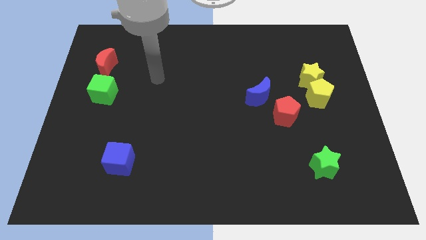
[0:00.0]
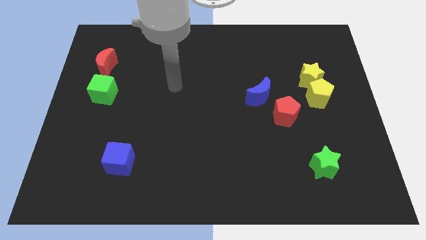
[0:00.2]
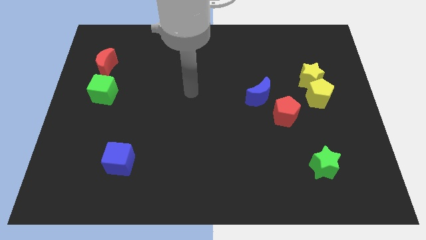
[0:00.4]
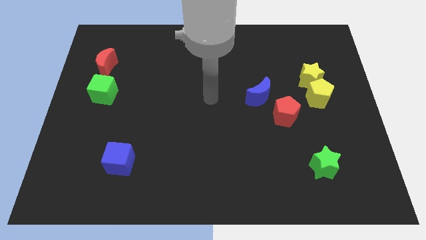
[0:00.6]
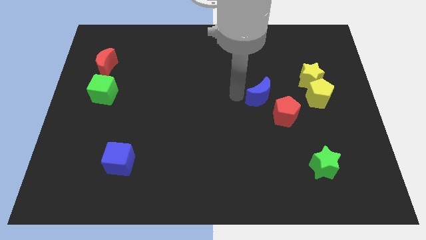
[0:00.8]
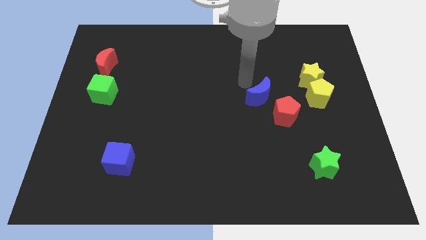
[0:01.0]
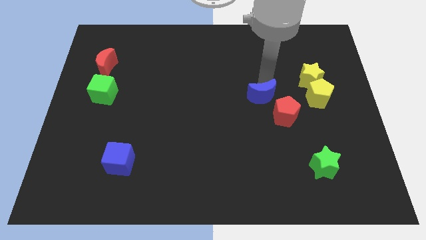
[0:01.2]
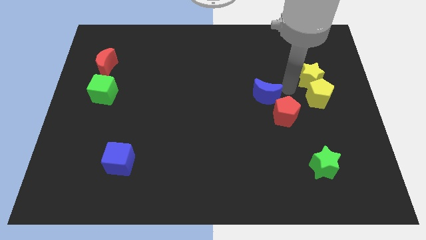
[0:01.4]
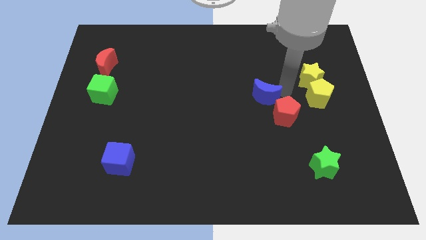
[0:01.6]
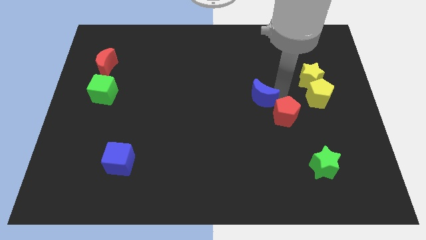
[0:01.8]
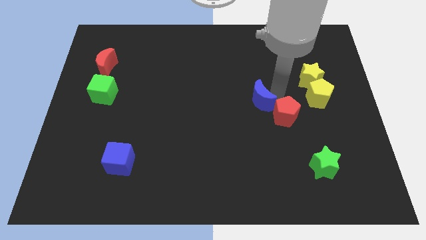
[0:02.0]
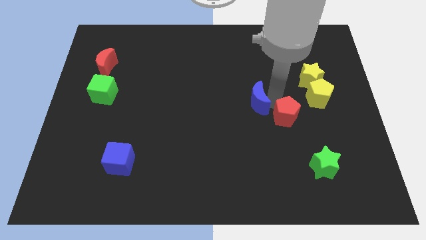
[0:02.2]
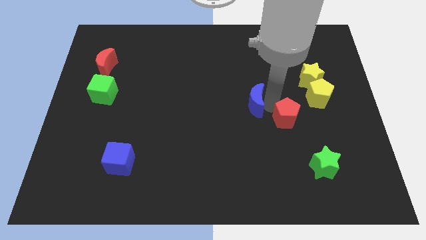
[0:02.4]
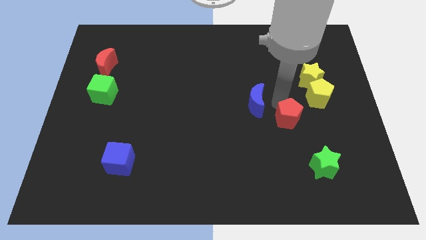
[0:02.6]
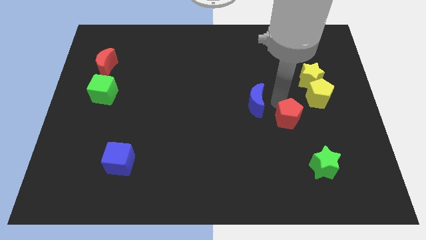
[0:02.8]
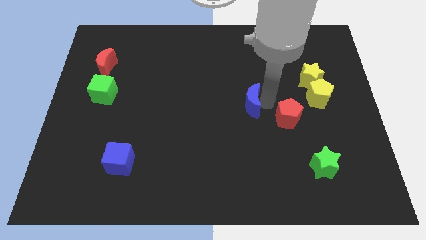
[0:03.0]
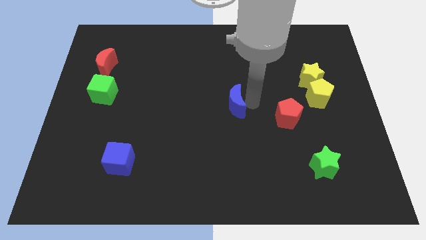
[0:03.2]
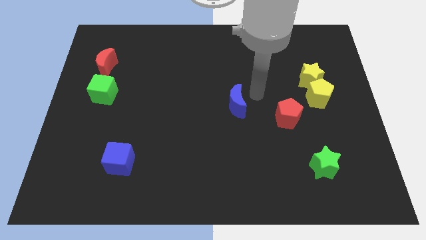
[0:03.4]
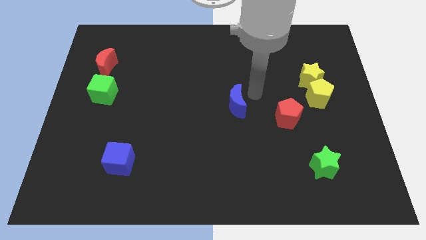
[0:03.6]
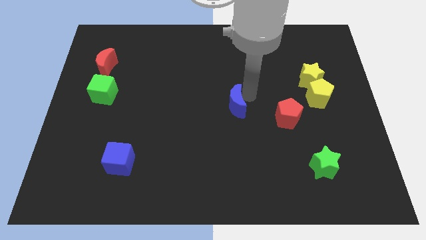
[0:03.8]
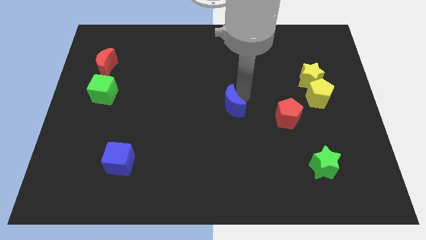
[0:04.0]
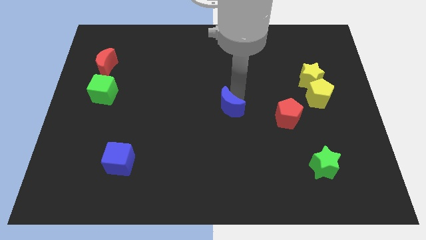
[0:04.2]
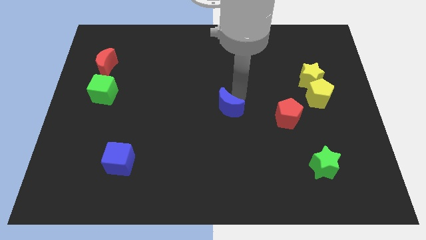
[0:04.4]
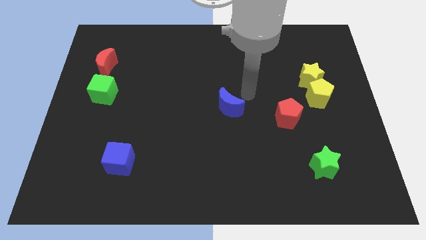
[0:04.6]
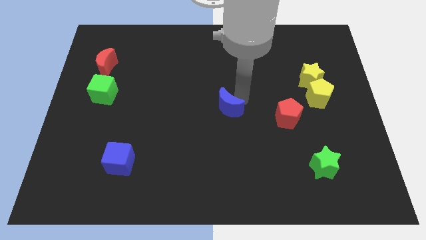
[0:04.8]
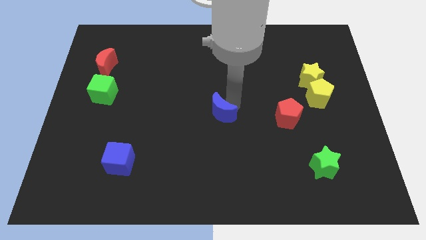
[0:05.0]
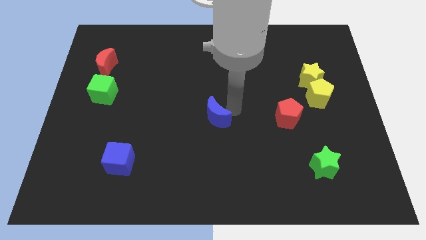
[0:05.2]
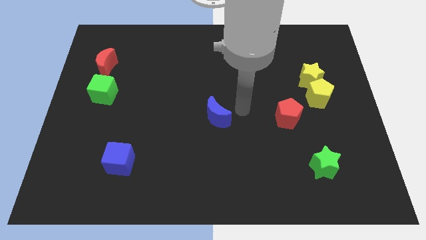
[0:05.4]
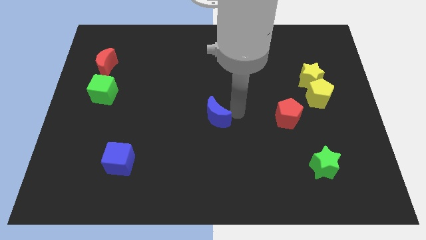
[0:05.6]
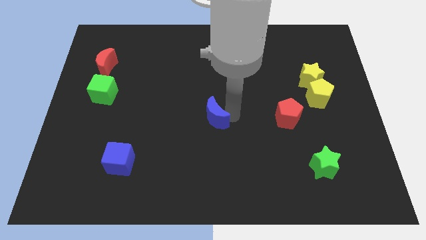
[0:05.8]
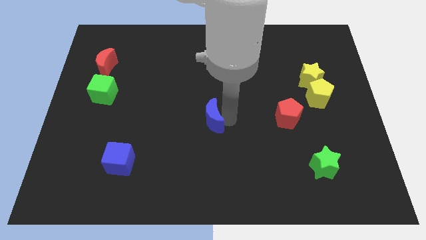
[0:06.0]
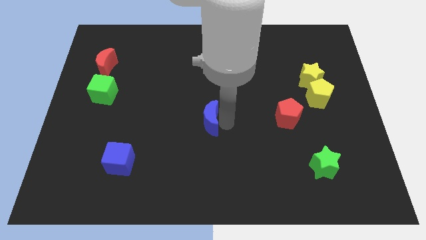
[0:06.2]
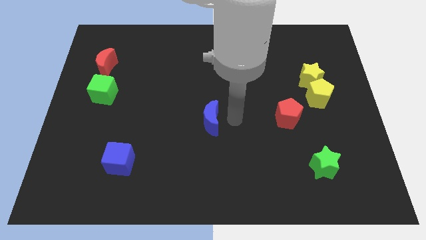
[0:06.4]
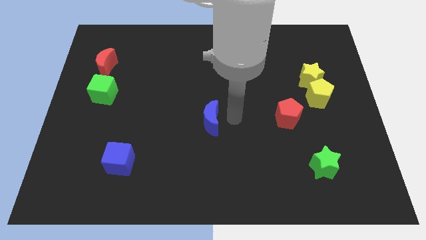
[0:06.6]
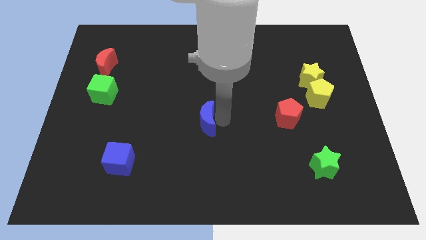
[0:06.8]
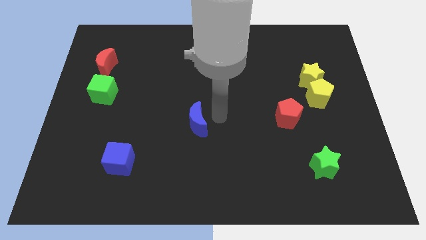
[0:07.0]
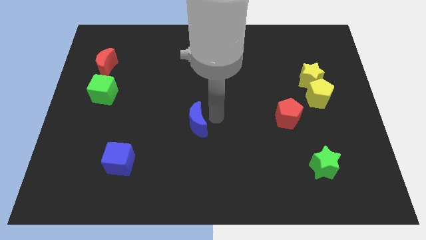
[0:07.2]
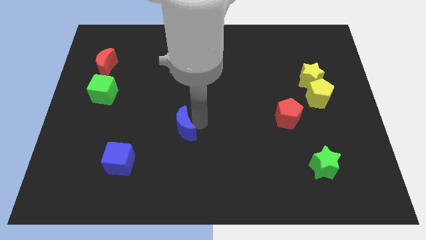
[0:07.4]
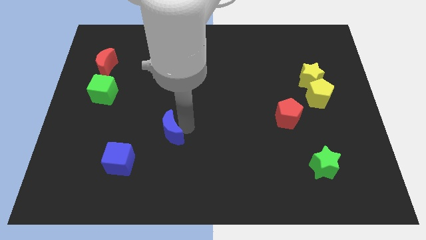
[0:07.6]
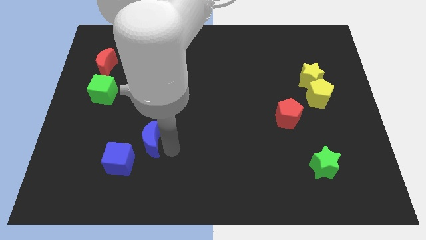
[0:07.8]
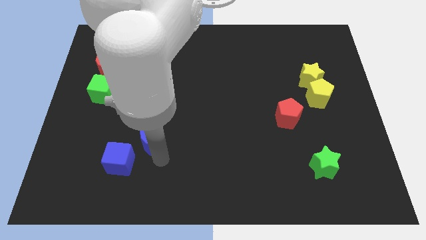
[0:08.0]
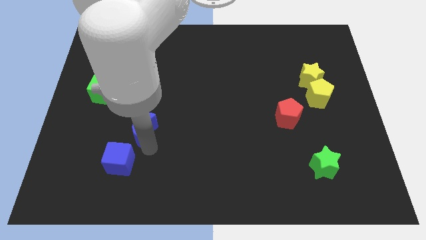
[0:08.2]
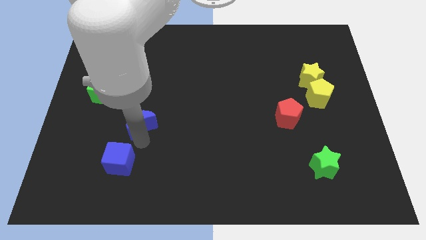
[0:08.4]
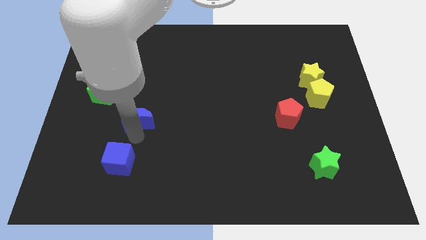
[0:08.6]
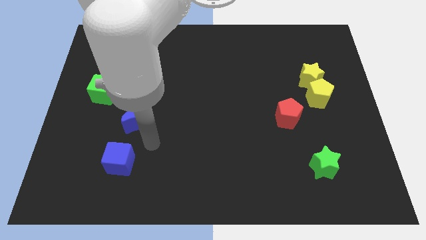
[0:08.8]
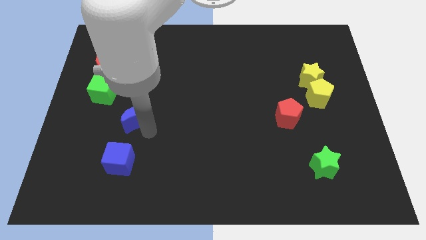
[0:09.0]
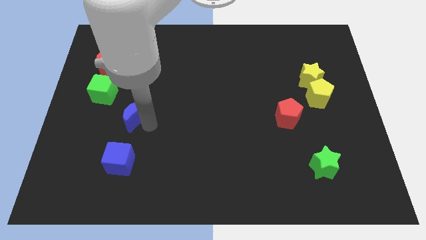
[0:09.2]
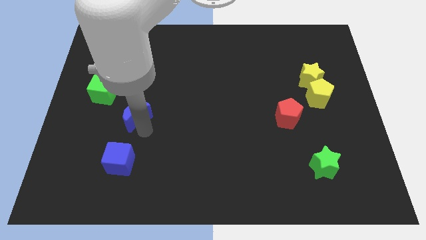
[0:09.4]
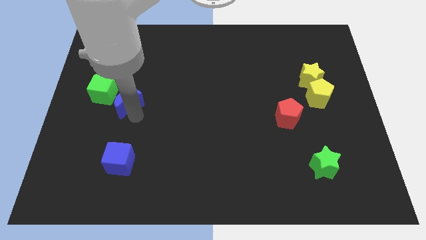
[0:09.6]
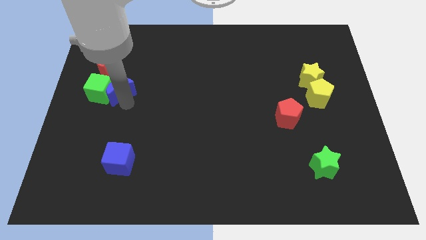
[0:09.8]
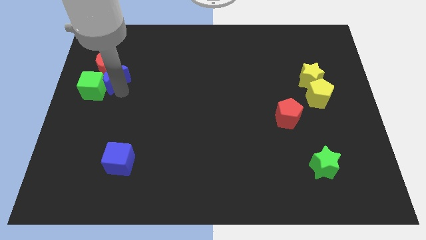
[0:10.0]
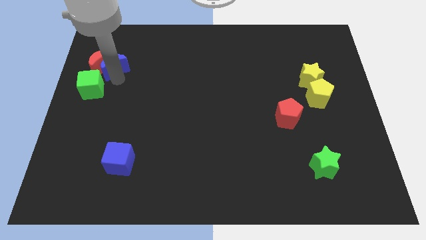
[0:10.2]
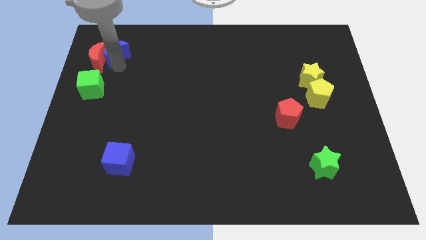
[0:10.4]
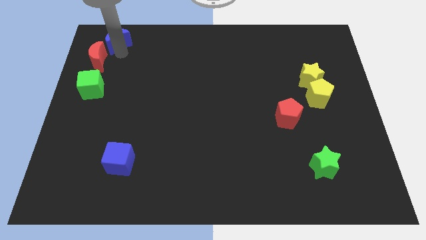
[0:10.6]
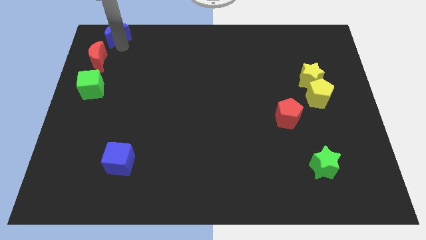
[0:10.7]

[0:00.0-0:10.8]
slide the blue moon to the upper left corner
